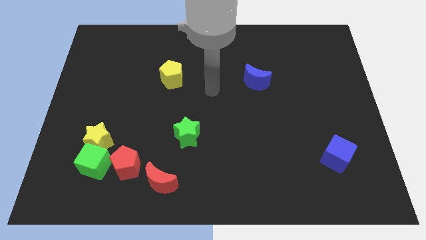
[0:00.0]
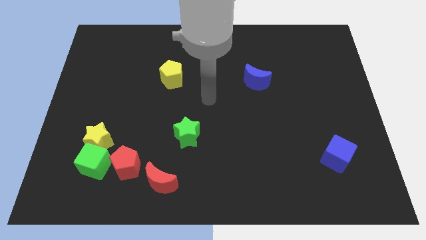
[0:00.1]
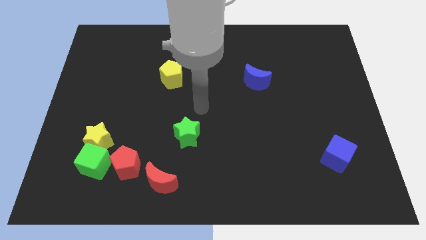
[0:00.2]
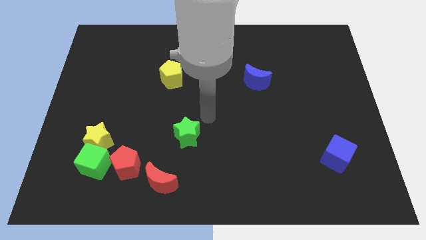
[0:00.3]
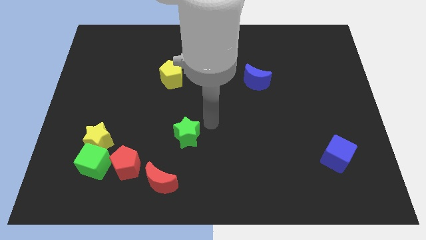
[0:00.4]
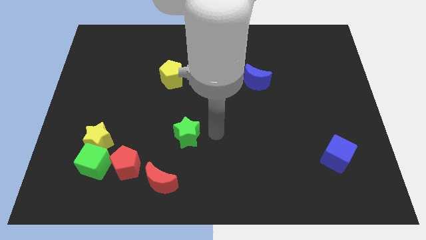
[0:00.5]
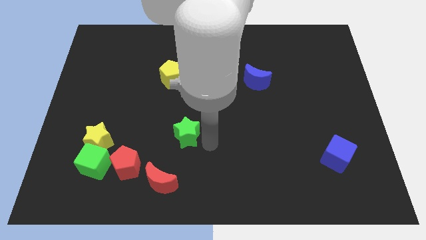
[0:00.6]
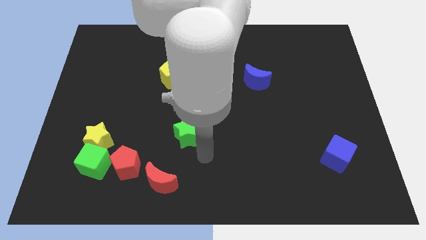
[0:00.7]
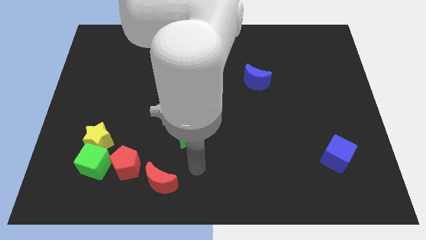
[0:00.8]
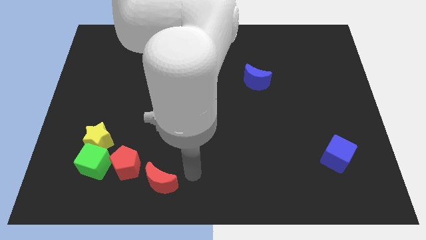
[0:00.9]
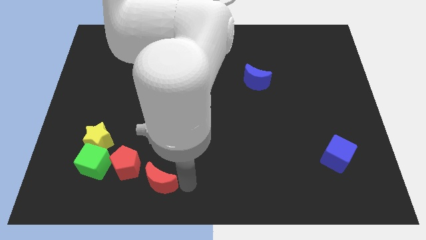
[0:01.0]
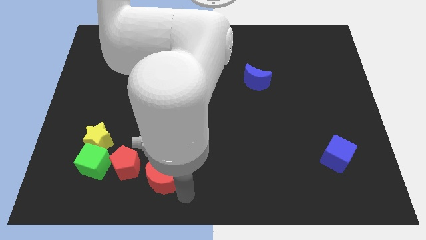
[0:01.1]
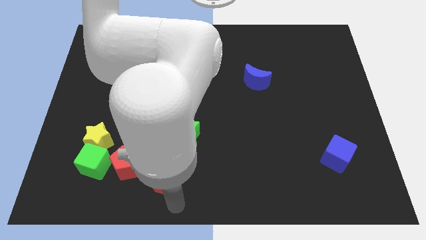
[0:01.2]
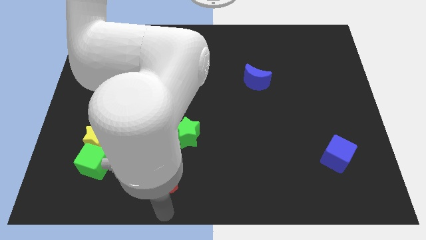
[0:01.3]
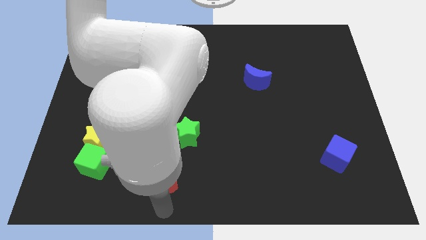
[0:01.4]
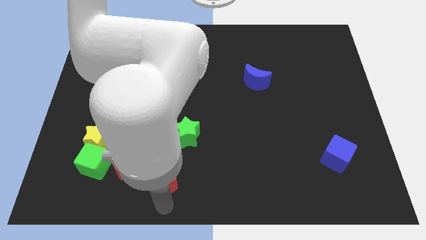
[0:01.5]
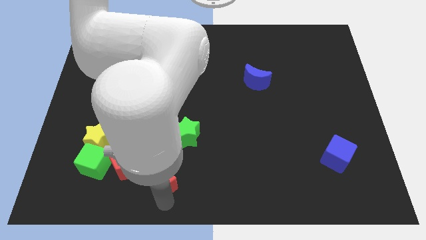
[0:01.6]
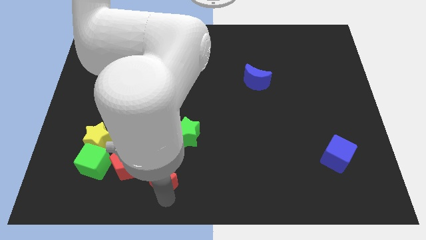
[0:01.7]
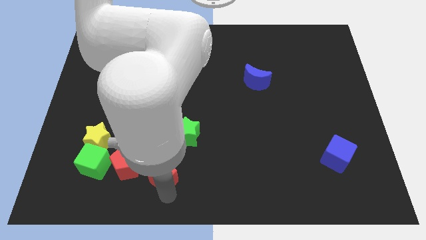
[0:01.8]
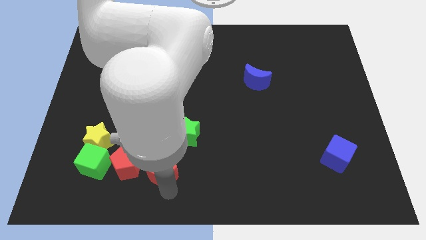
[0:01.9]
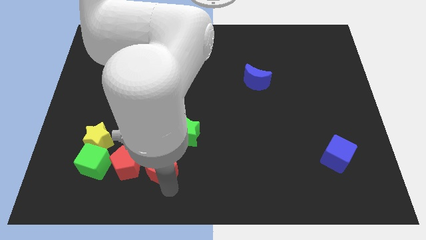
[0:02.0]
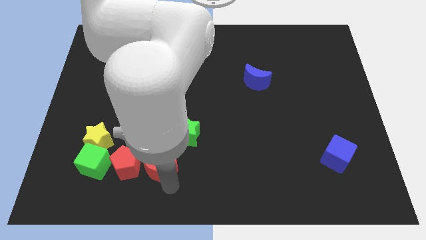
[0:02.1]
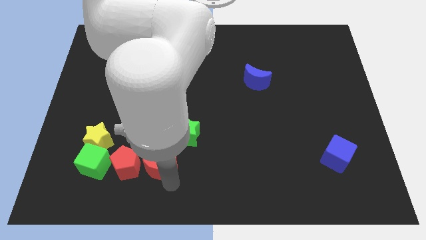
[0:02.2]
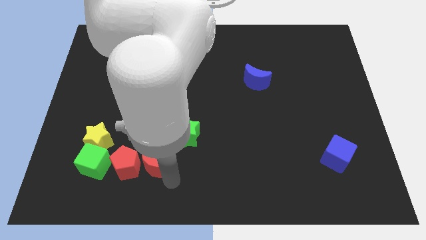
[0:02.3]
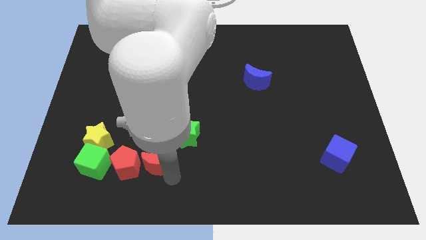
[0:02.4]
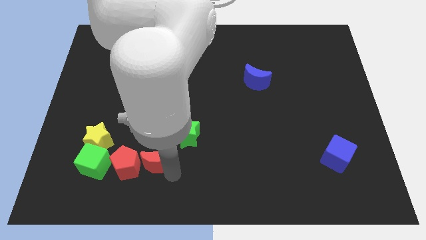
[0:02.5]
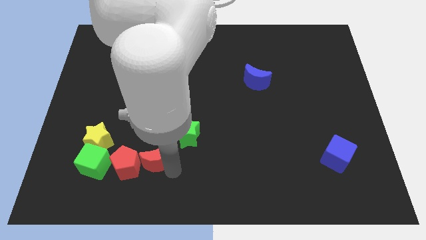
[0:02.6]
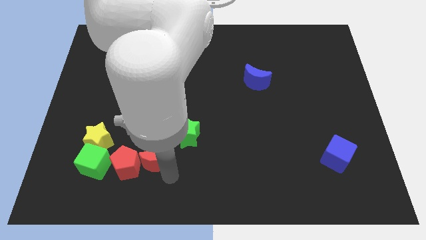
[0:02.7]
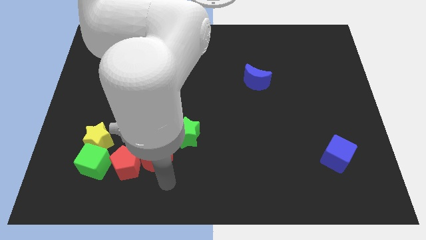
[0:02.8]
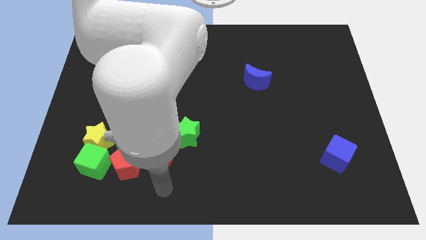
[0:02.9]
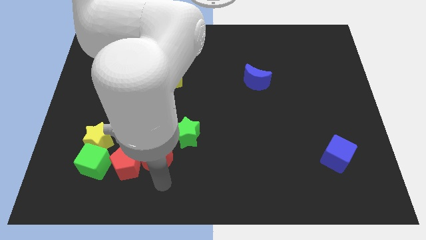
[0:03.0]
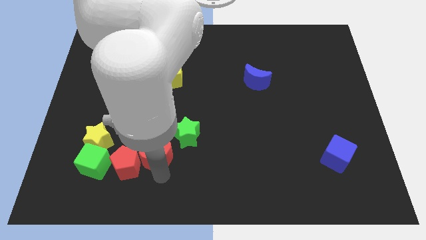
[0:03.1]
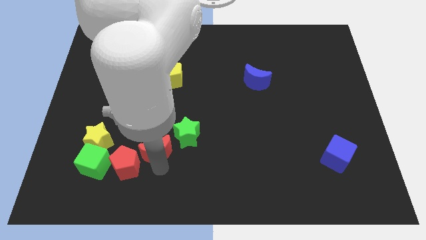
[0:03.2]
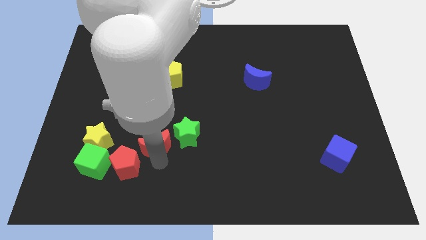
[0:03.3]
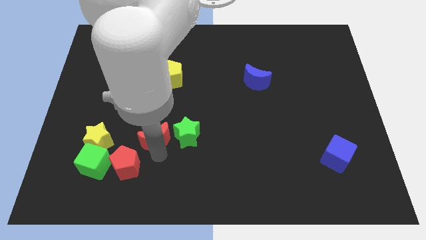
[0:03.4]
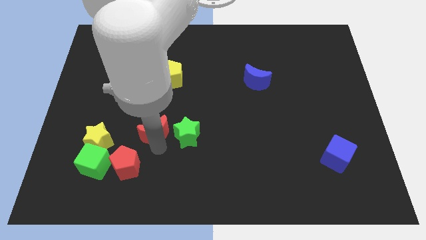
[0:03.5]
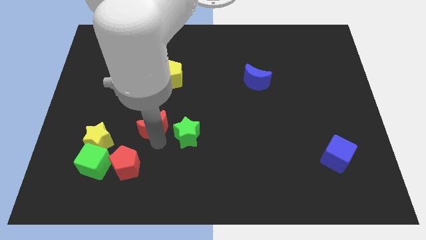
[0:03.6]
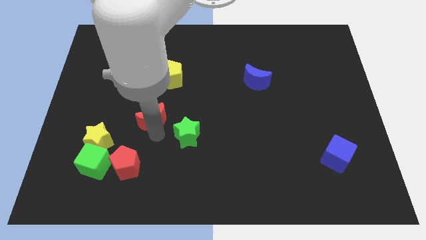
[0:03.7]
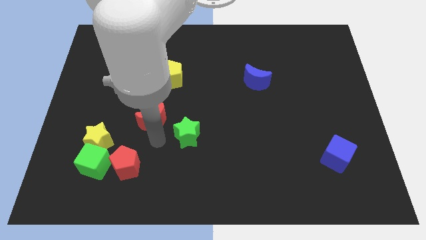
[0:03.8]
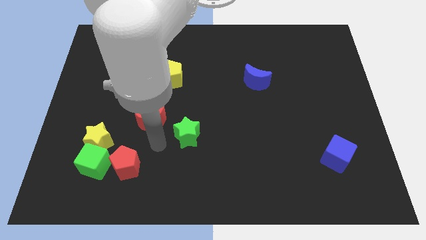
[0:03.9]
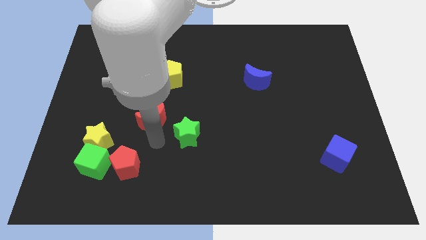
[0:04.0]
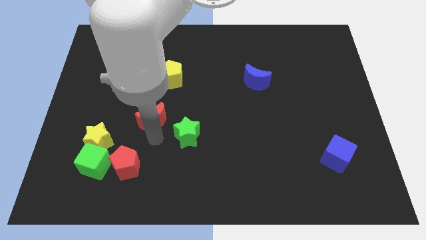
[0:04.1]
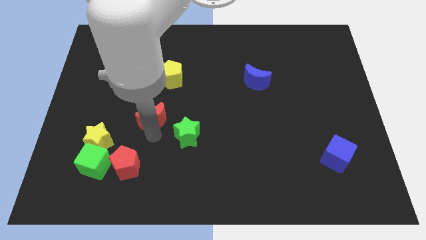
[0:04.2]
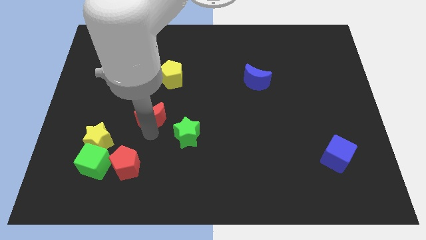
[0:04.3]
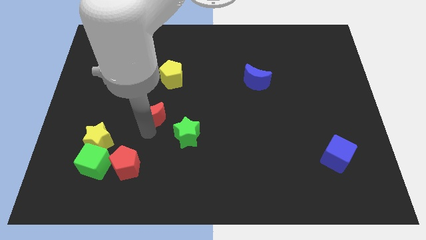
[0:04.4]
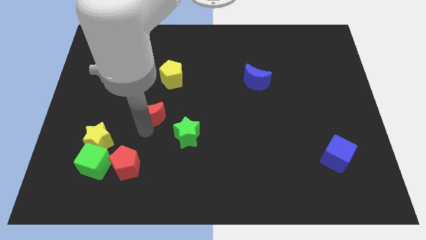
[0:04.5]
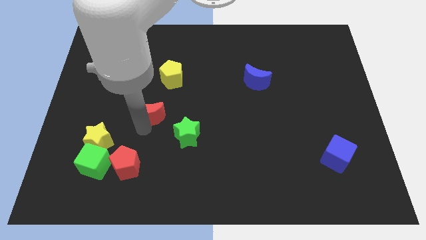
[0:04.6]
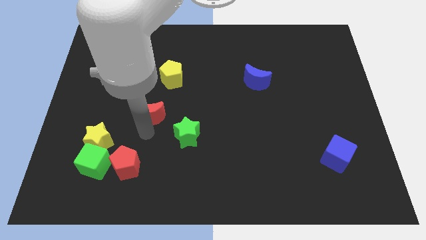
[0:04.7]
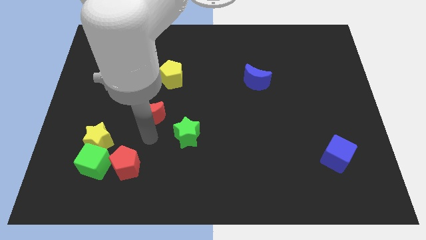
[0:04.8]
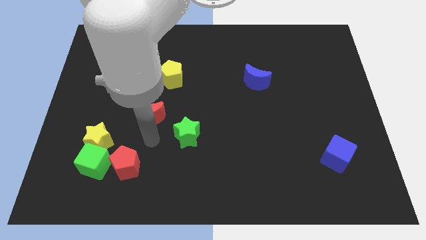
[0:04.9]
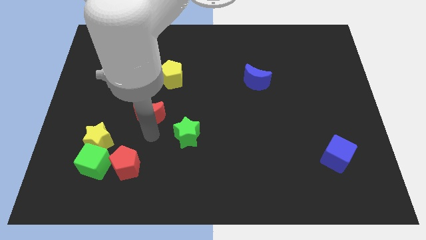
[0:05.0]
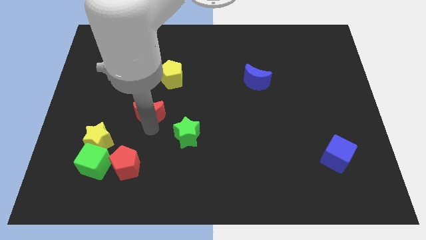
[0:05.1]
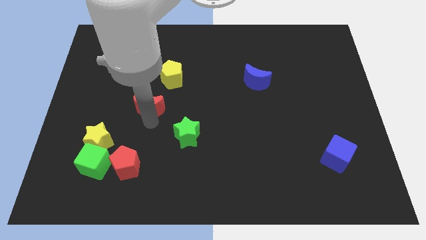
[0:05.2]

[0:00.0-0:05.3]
move the red moon to the bottom left side of the yellow pentagon

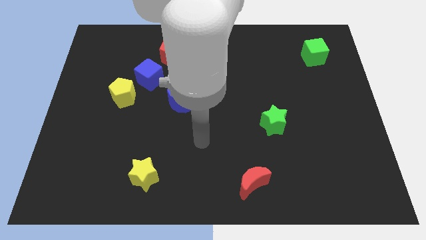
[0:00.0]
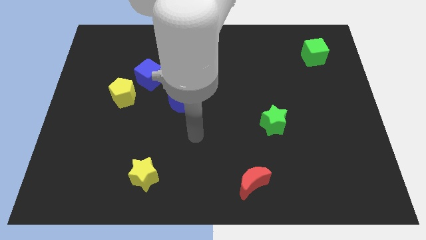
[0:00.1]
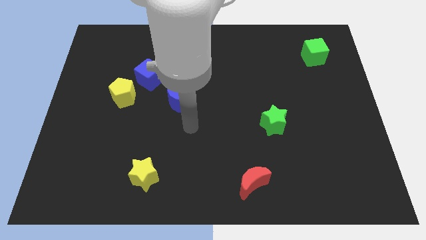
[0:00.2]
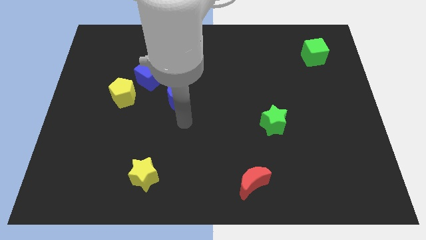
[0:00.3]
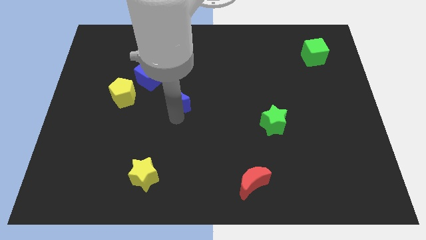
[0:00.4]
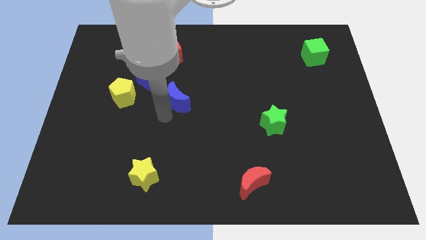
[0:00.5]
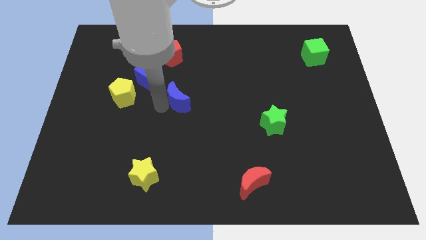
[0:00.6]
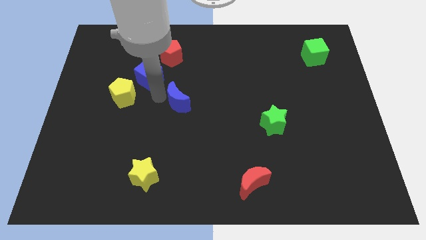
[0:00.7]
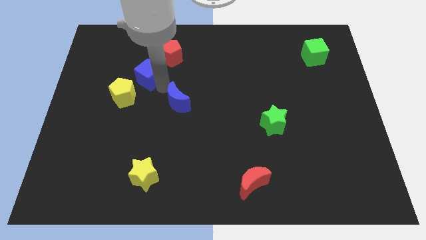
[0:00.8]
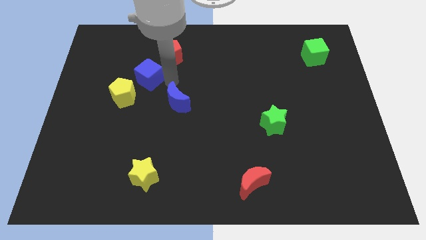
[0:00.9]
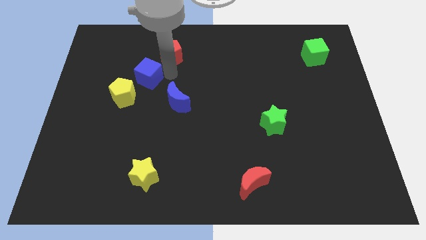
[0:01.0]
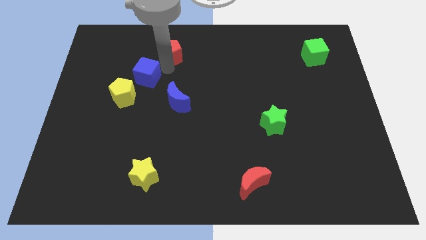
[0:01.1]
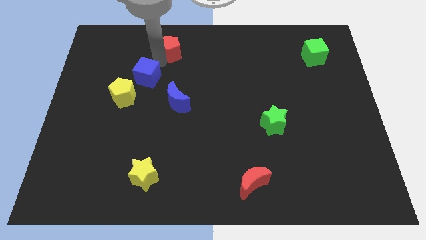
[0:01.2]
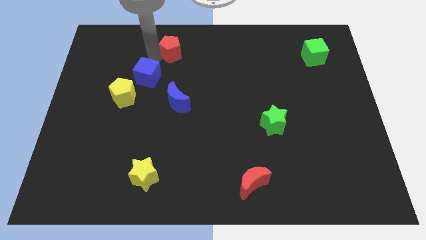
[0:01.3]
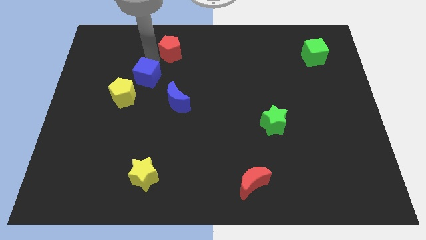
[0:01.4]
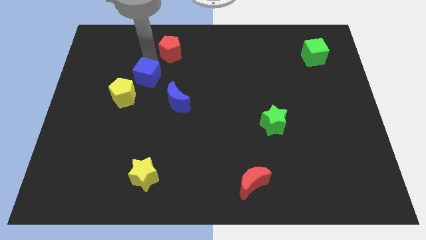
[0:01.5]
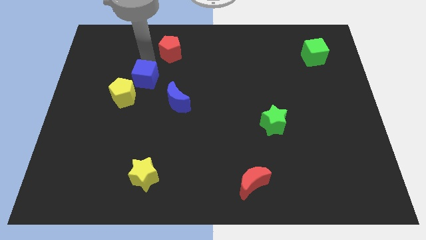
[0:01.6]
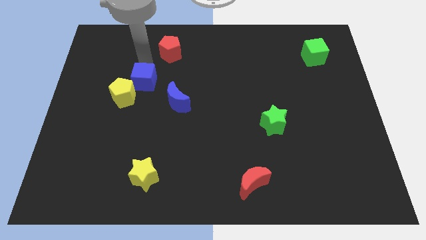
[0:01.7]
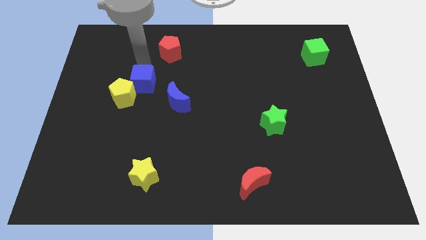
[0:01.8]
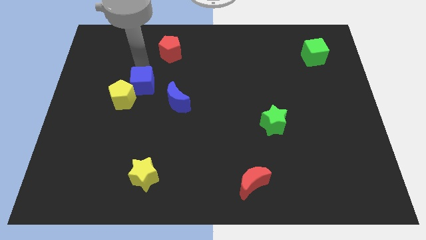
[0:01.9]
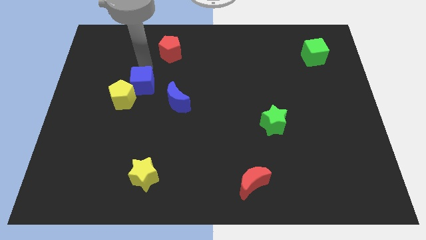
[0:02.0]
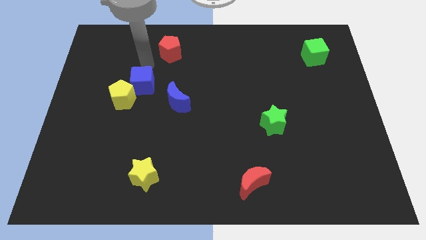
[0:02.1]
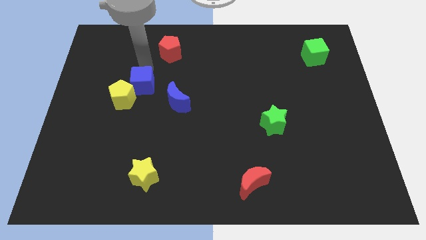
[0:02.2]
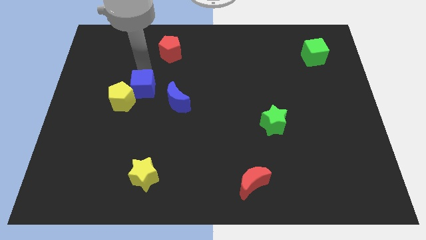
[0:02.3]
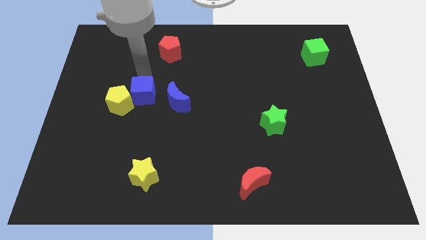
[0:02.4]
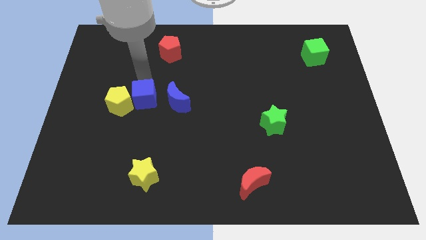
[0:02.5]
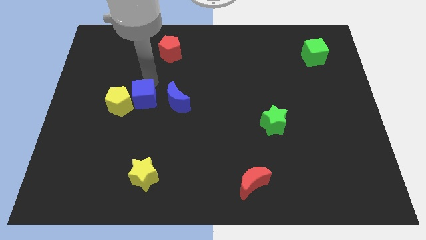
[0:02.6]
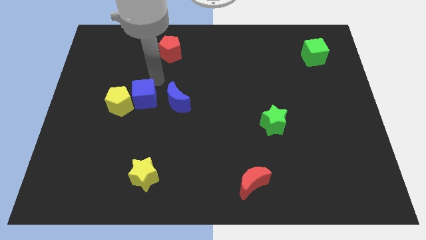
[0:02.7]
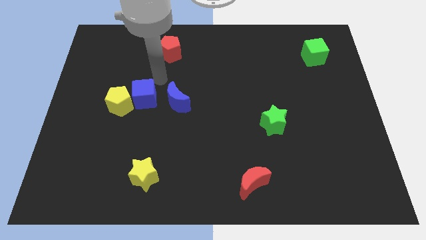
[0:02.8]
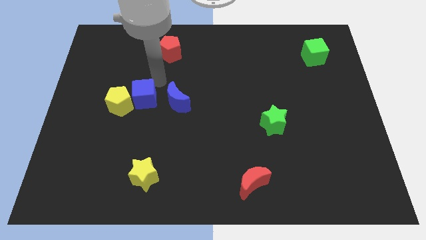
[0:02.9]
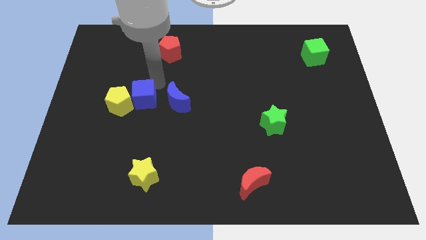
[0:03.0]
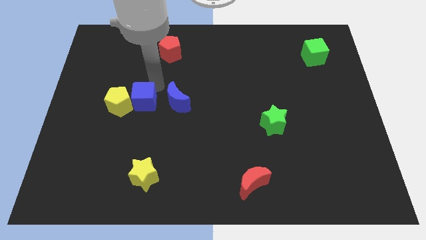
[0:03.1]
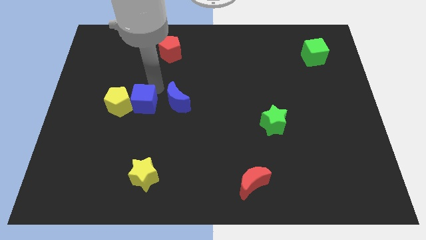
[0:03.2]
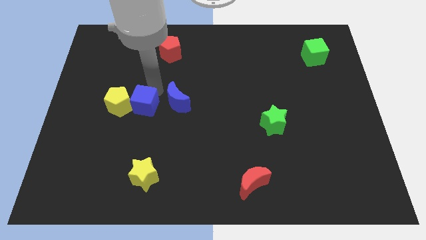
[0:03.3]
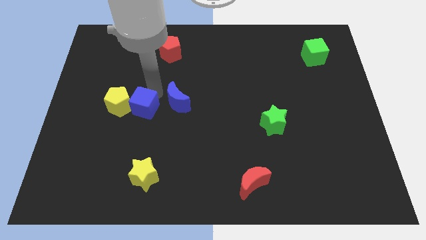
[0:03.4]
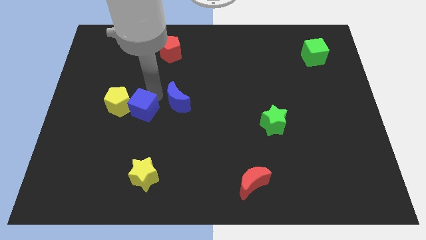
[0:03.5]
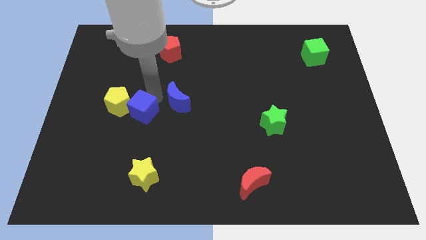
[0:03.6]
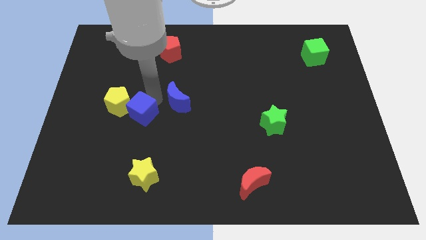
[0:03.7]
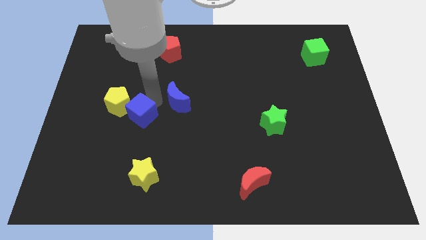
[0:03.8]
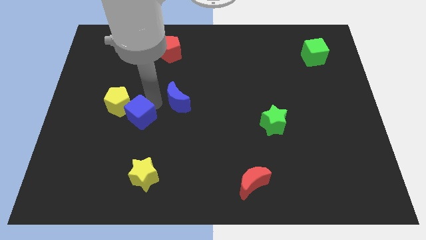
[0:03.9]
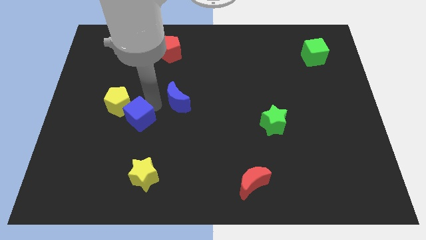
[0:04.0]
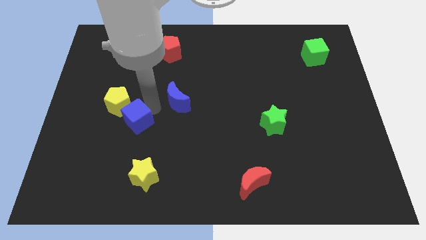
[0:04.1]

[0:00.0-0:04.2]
slide the blue cube below the yellow pentagon
